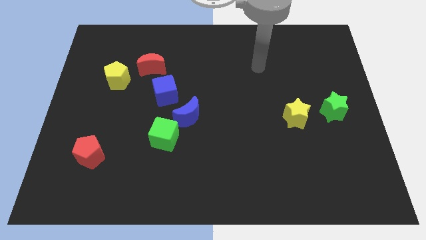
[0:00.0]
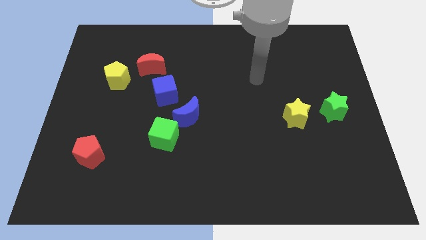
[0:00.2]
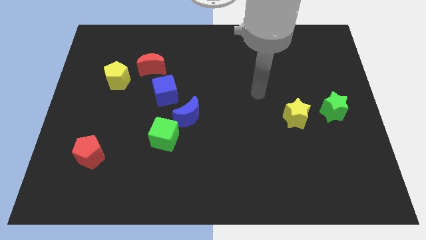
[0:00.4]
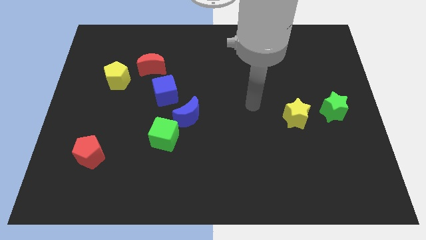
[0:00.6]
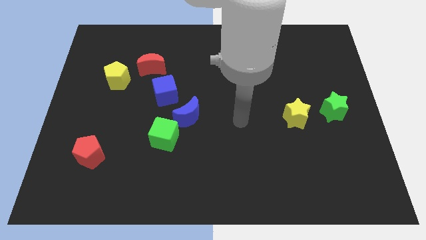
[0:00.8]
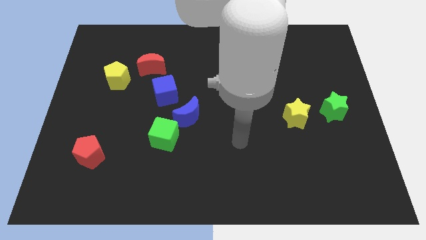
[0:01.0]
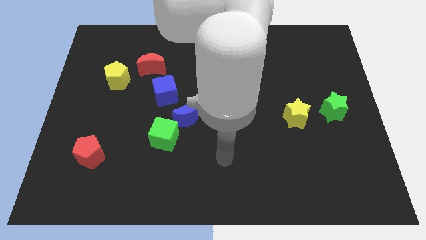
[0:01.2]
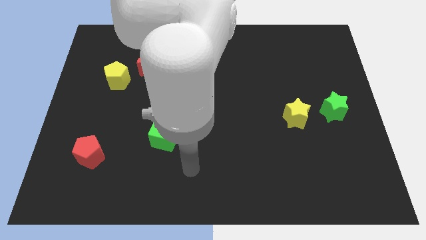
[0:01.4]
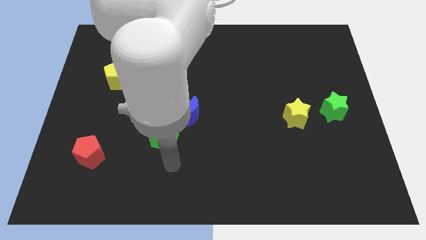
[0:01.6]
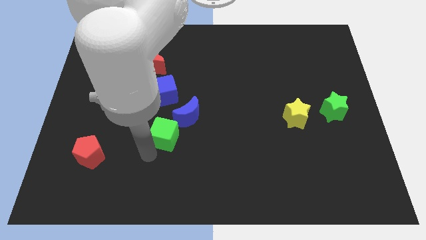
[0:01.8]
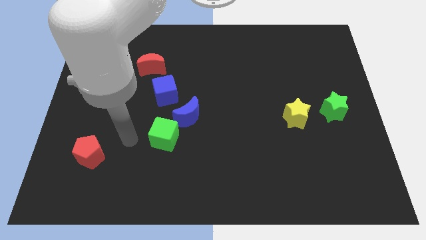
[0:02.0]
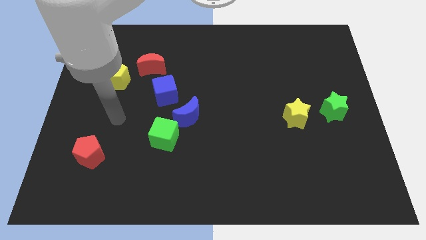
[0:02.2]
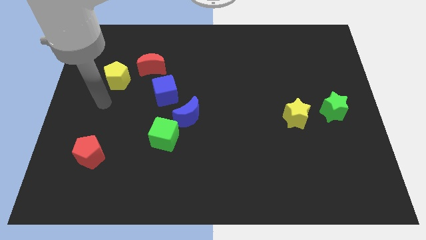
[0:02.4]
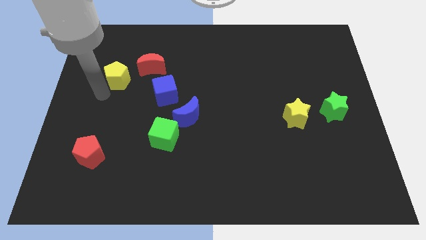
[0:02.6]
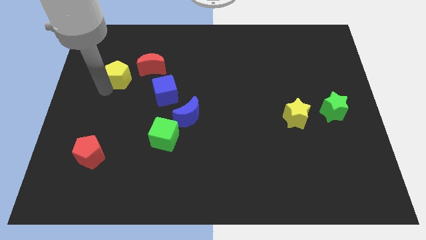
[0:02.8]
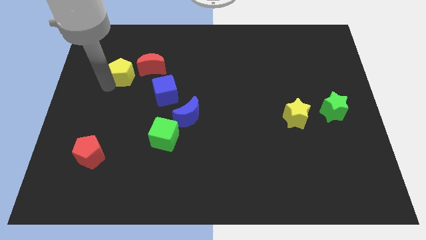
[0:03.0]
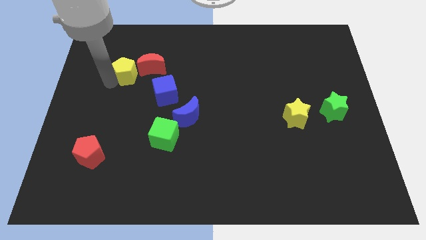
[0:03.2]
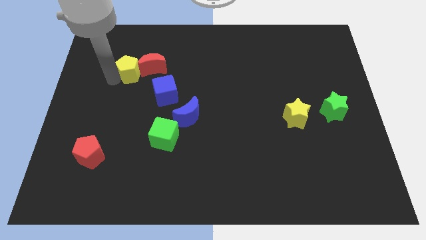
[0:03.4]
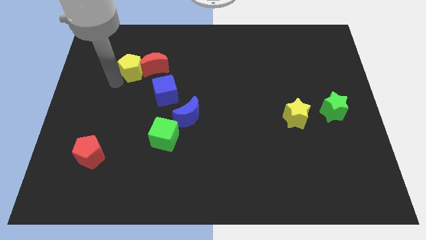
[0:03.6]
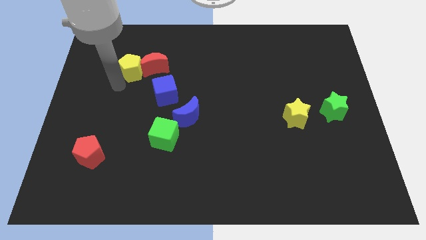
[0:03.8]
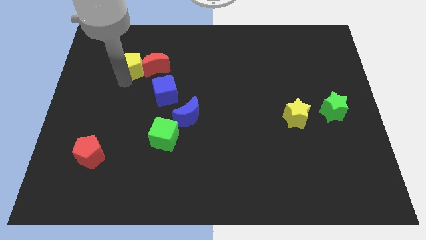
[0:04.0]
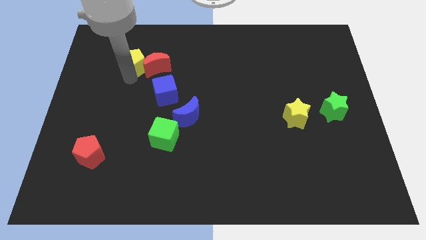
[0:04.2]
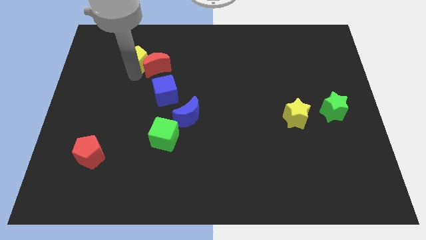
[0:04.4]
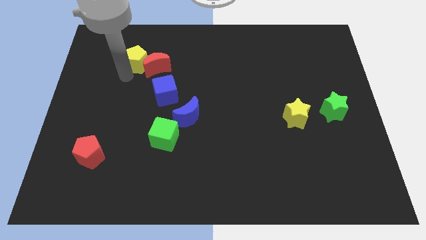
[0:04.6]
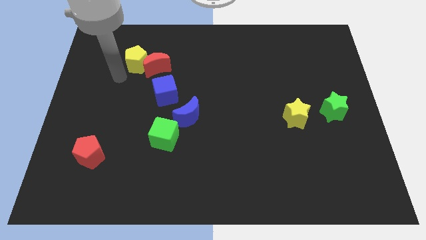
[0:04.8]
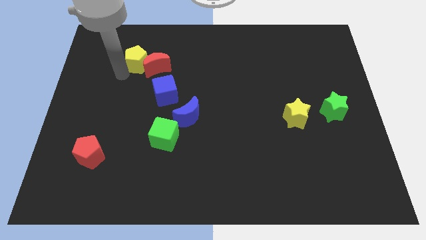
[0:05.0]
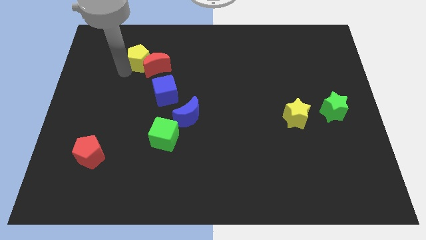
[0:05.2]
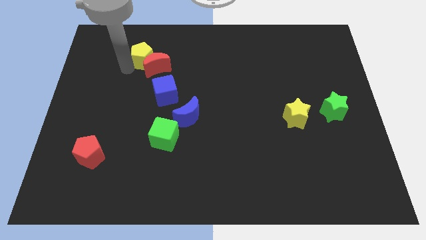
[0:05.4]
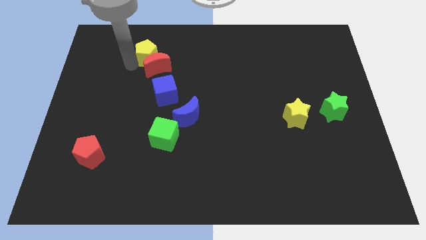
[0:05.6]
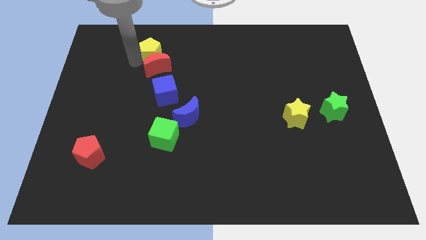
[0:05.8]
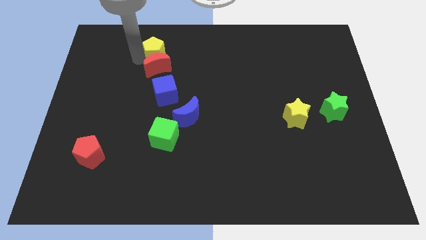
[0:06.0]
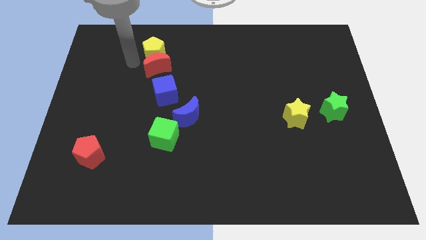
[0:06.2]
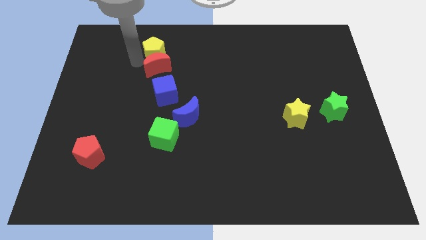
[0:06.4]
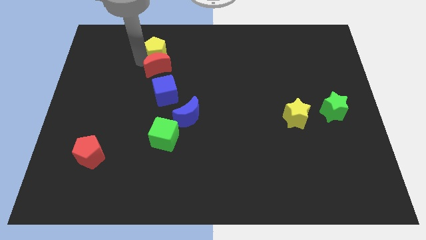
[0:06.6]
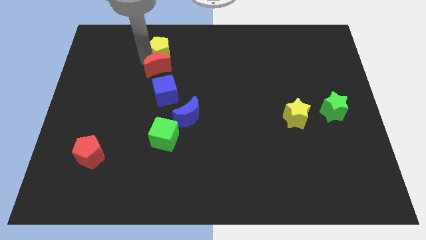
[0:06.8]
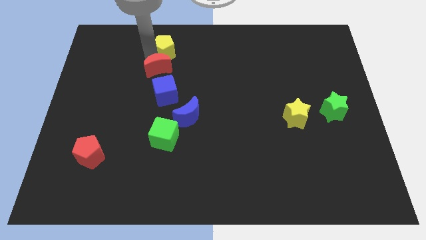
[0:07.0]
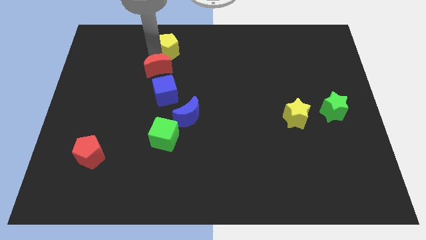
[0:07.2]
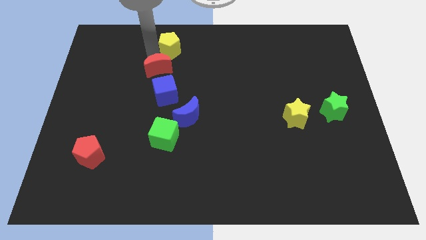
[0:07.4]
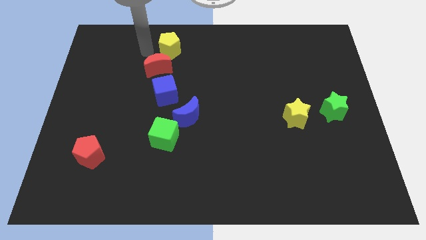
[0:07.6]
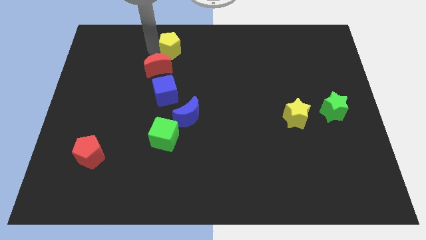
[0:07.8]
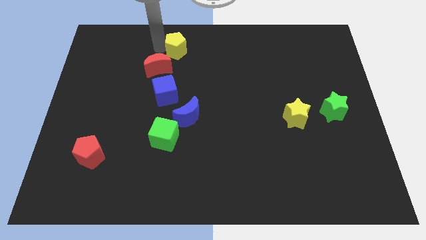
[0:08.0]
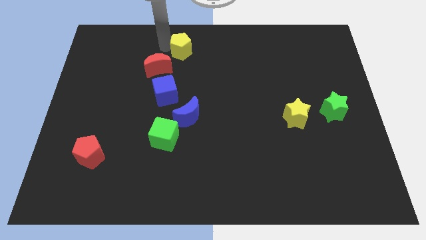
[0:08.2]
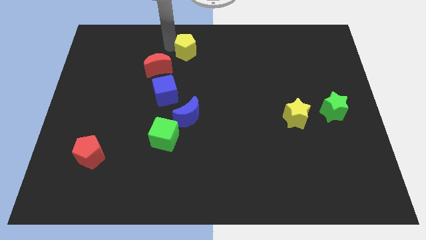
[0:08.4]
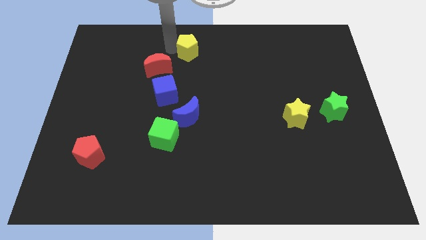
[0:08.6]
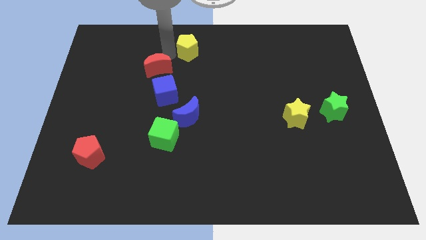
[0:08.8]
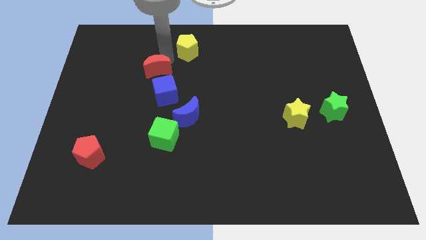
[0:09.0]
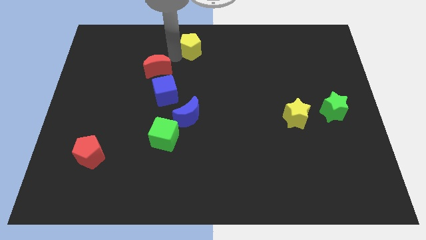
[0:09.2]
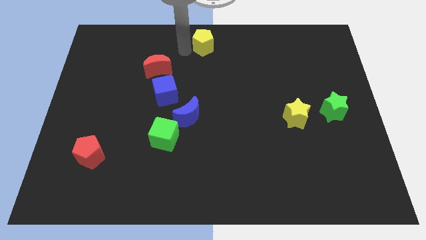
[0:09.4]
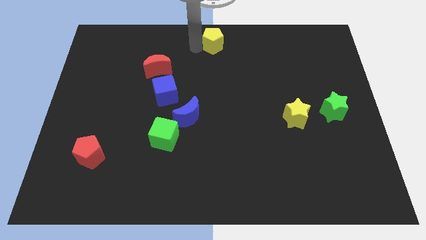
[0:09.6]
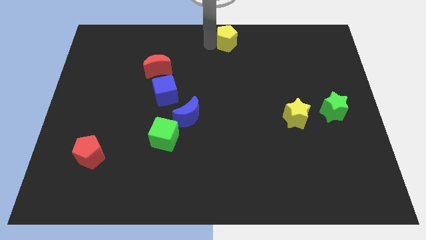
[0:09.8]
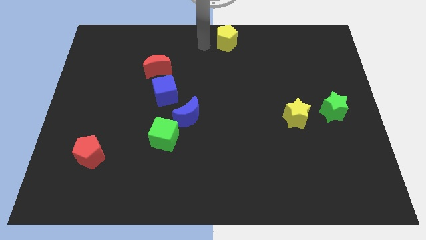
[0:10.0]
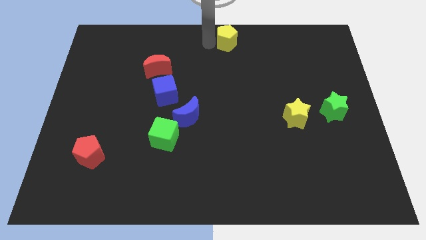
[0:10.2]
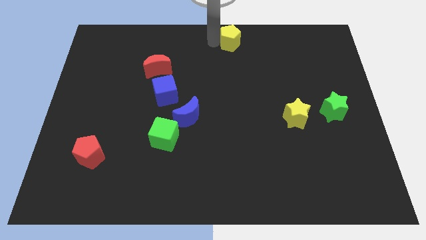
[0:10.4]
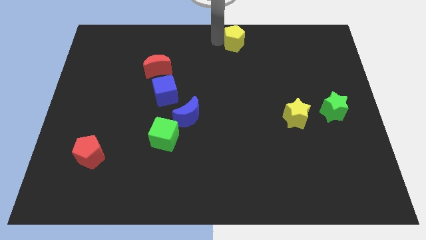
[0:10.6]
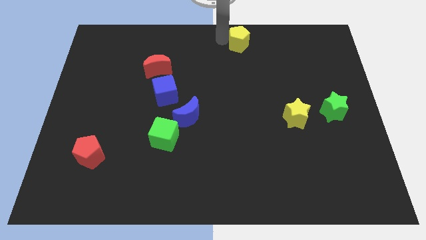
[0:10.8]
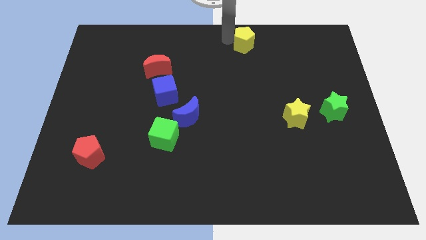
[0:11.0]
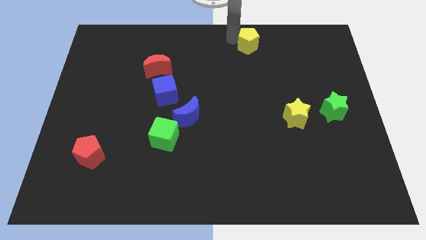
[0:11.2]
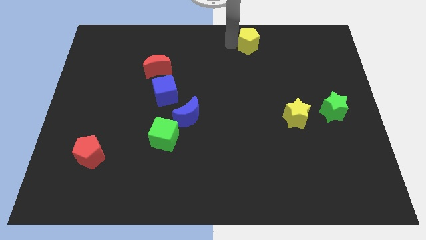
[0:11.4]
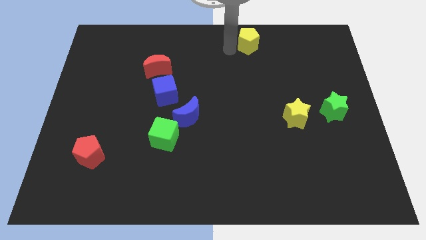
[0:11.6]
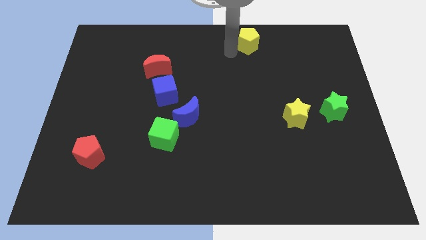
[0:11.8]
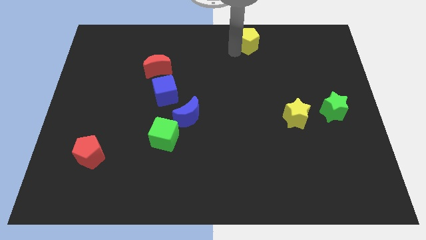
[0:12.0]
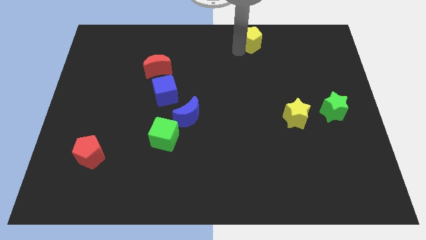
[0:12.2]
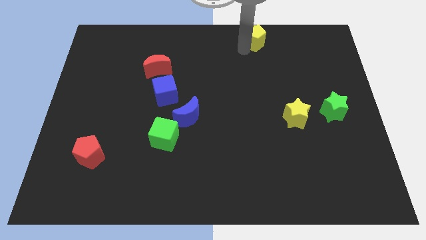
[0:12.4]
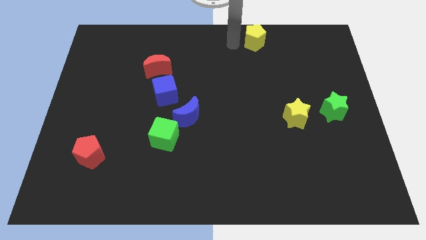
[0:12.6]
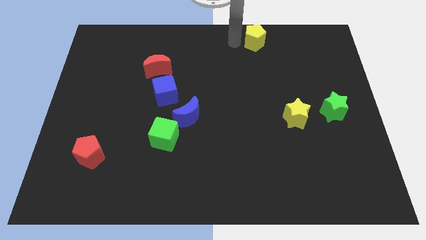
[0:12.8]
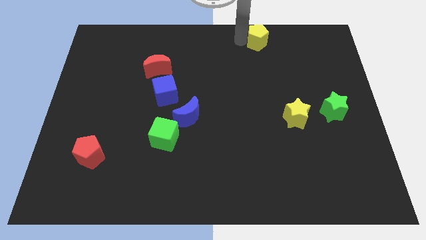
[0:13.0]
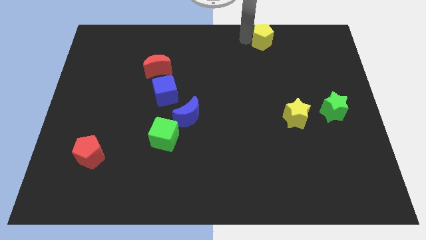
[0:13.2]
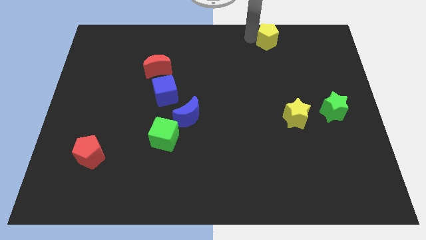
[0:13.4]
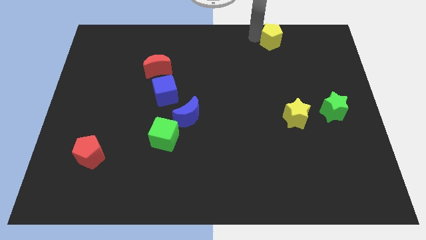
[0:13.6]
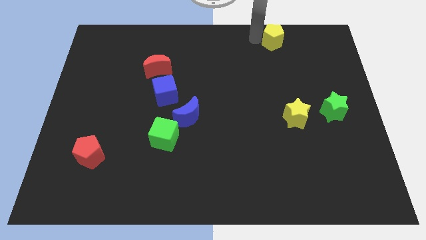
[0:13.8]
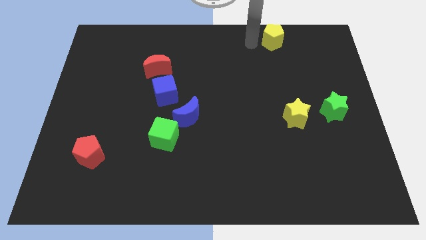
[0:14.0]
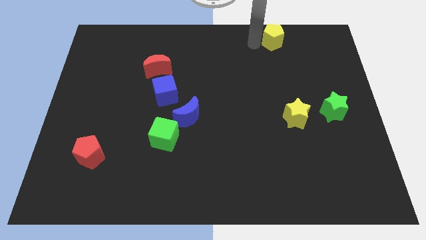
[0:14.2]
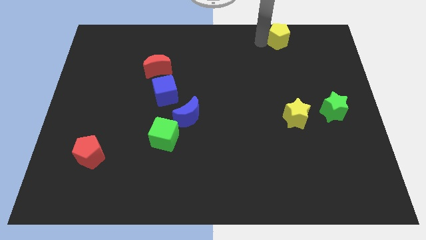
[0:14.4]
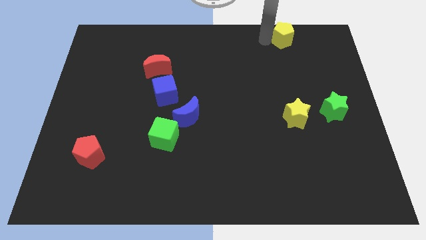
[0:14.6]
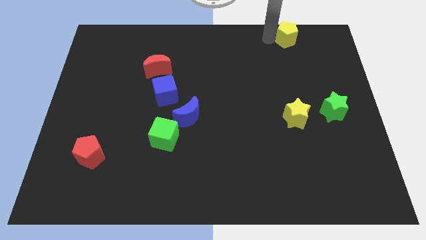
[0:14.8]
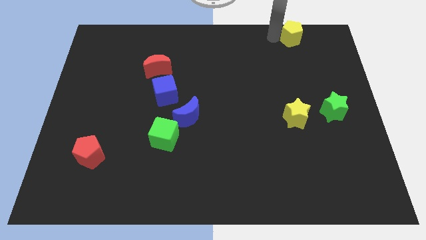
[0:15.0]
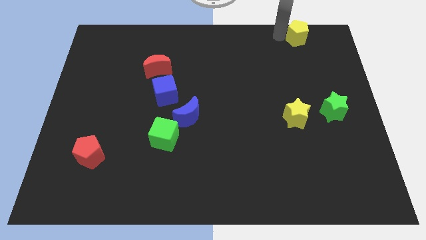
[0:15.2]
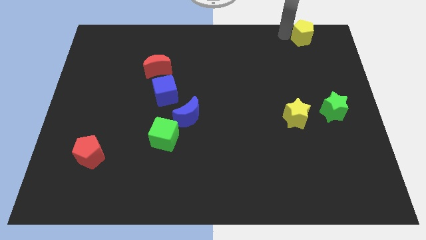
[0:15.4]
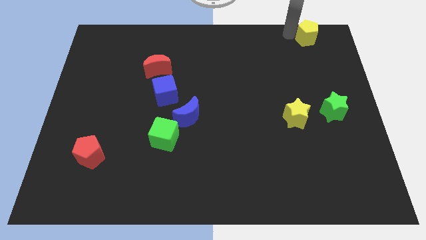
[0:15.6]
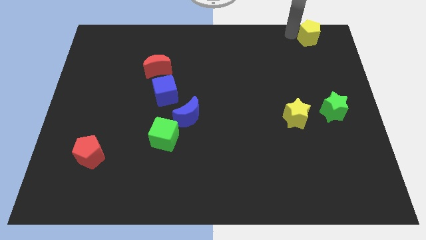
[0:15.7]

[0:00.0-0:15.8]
slide the yellow pentagon to the top right
